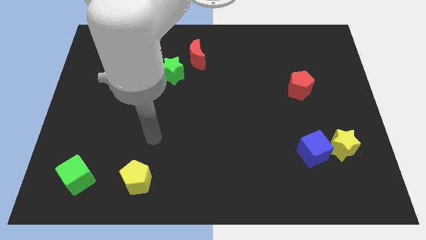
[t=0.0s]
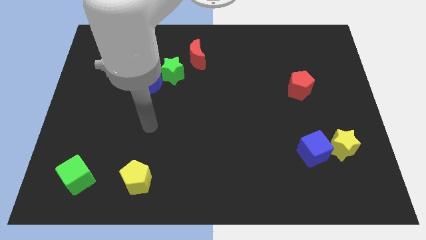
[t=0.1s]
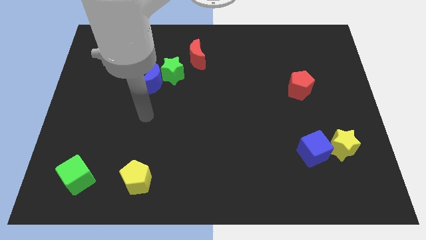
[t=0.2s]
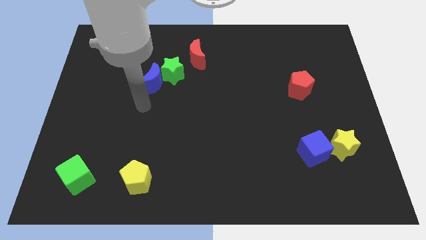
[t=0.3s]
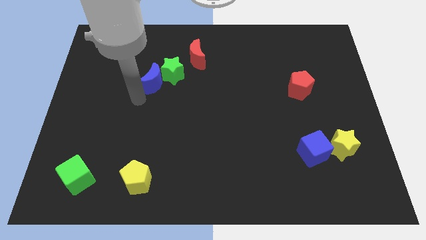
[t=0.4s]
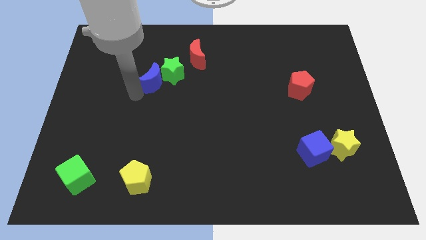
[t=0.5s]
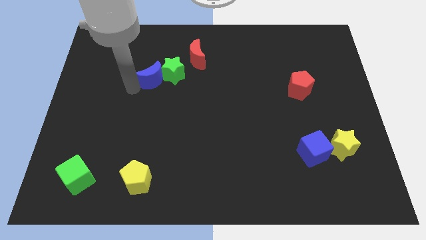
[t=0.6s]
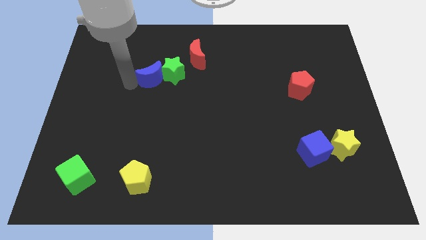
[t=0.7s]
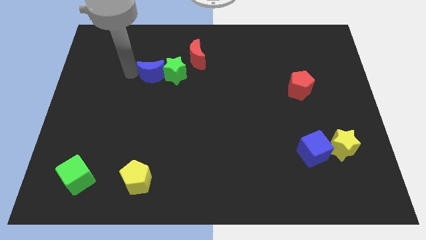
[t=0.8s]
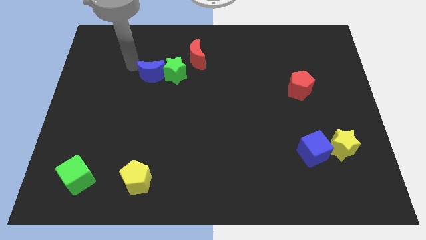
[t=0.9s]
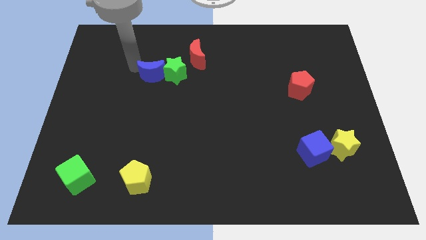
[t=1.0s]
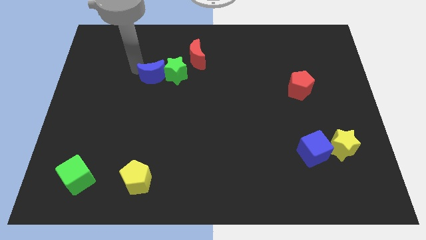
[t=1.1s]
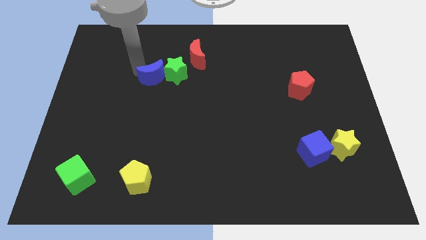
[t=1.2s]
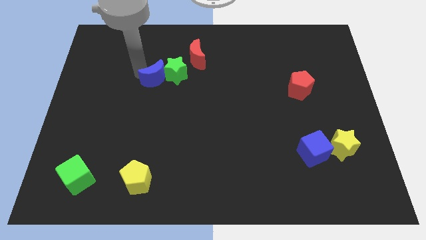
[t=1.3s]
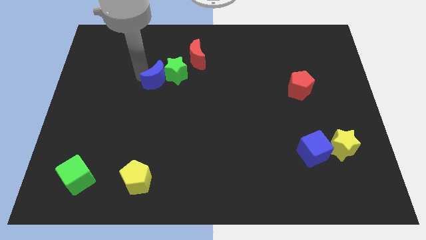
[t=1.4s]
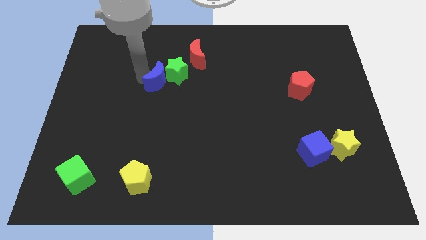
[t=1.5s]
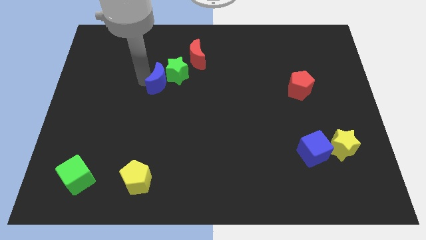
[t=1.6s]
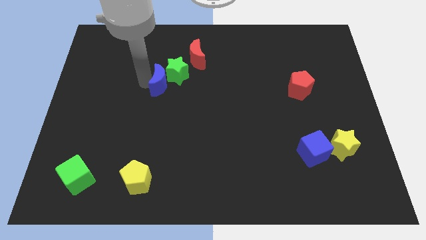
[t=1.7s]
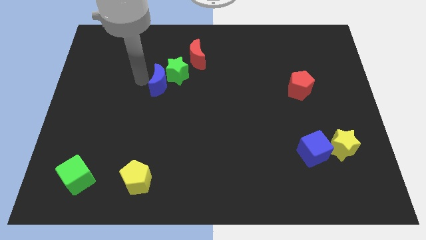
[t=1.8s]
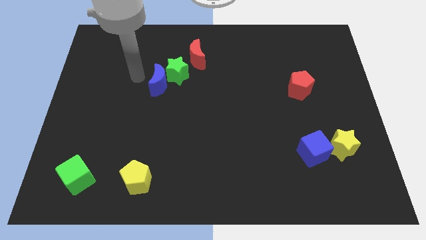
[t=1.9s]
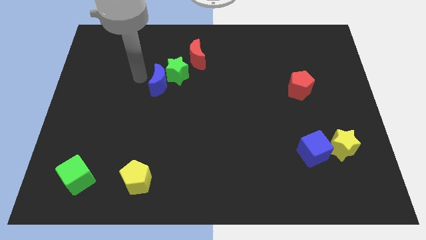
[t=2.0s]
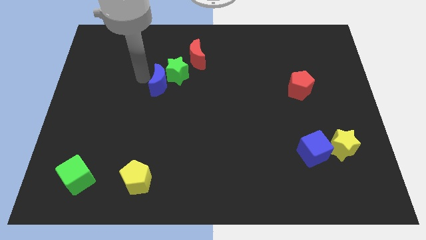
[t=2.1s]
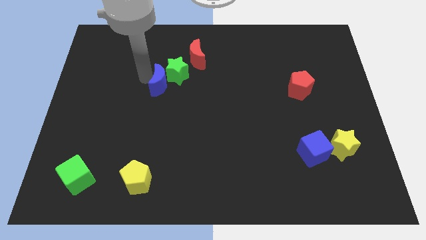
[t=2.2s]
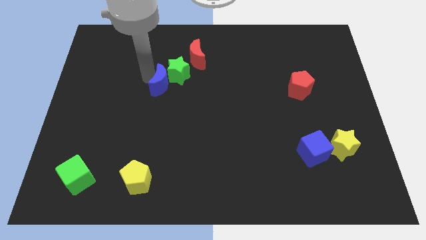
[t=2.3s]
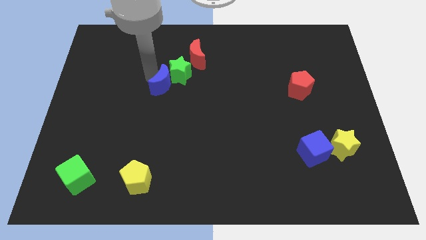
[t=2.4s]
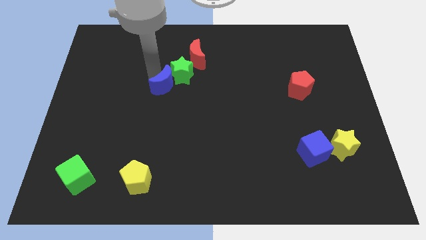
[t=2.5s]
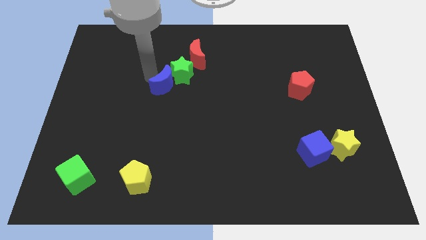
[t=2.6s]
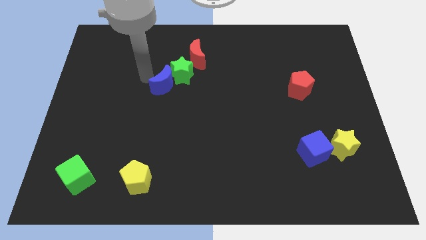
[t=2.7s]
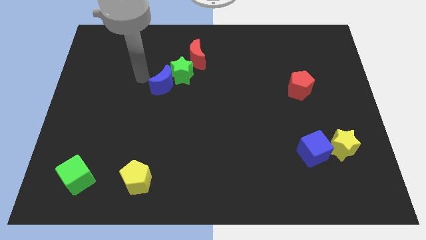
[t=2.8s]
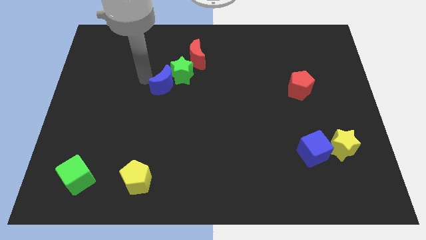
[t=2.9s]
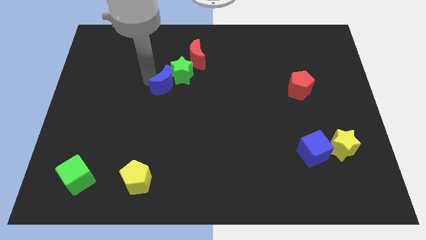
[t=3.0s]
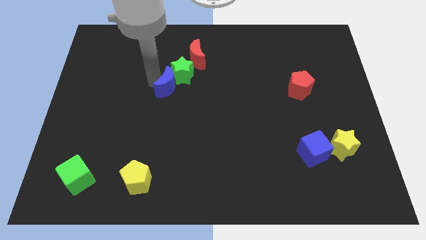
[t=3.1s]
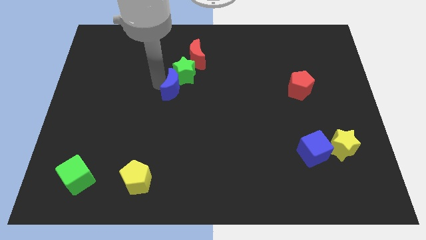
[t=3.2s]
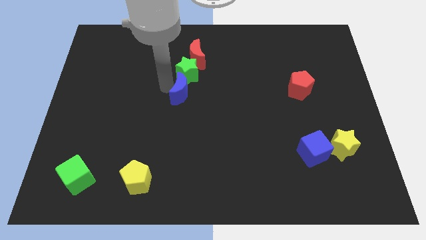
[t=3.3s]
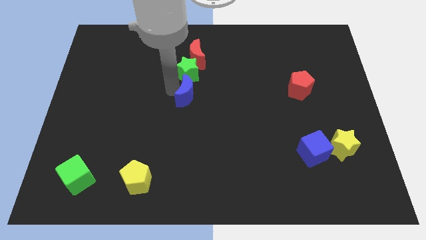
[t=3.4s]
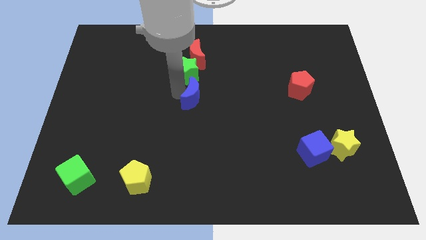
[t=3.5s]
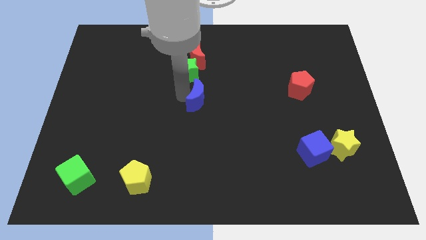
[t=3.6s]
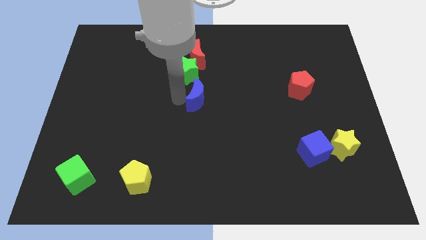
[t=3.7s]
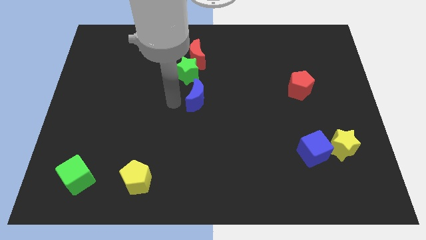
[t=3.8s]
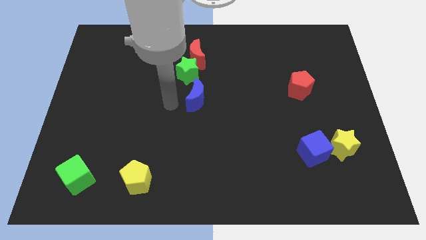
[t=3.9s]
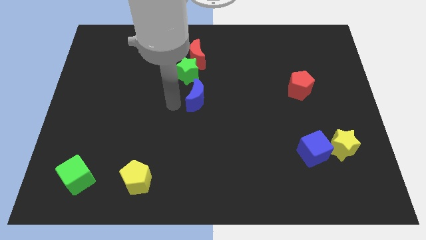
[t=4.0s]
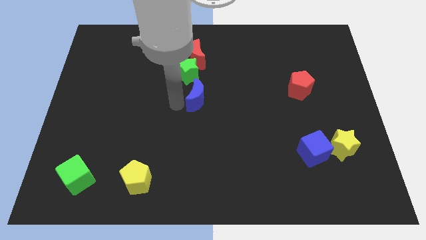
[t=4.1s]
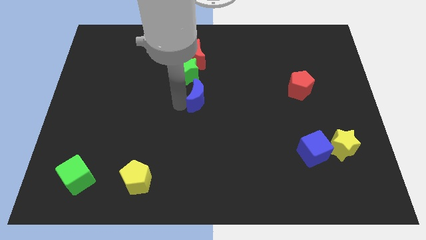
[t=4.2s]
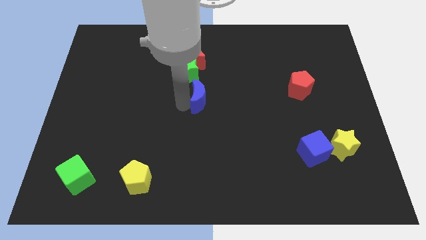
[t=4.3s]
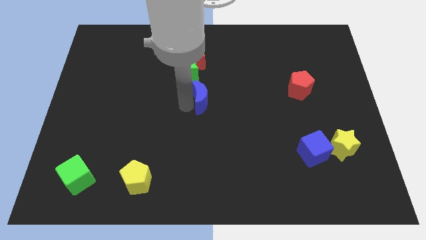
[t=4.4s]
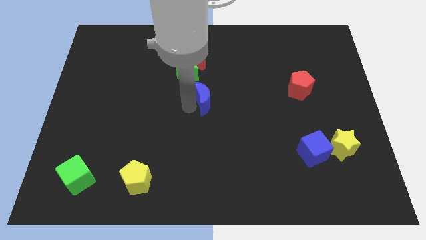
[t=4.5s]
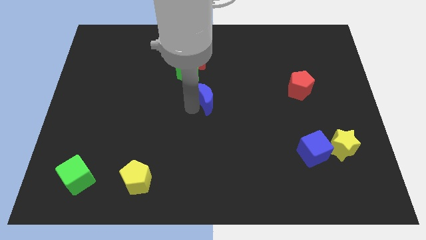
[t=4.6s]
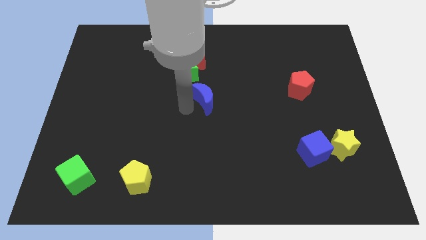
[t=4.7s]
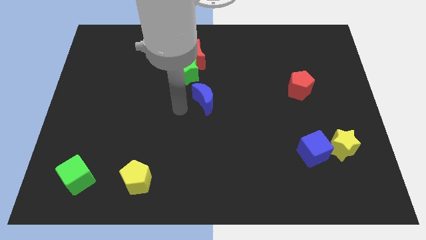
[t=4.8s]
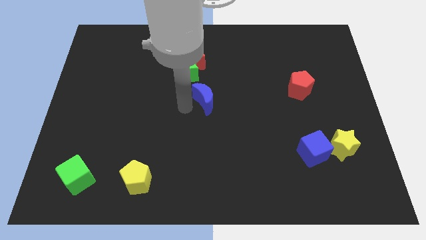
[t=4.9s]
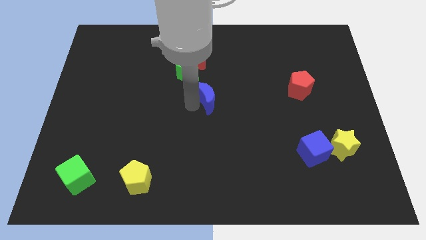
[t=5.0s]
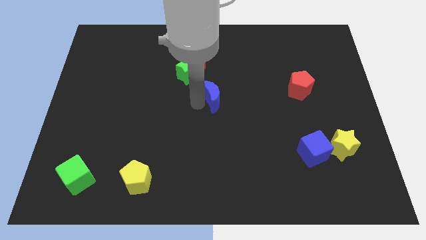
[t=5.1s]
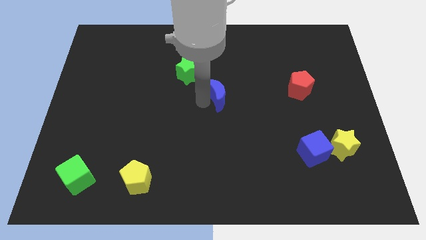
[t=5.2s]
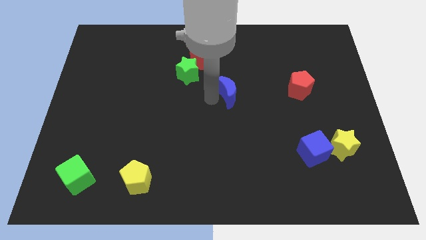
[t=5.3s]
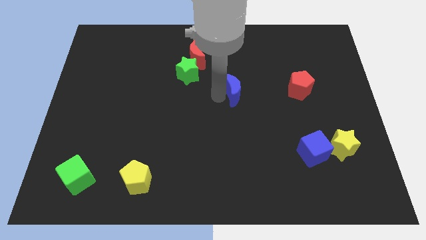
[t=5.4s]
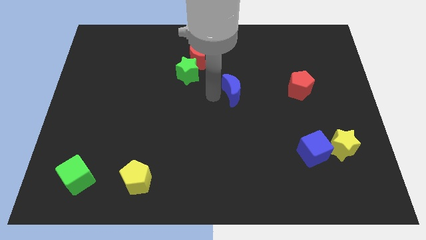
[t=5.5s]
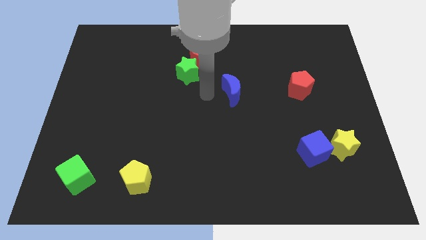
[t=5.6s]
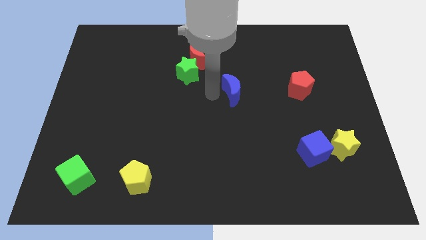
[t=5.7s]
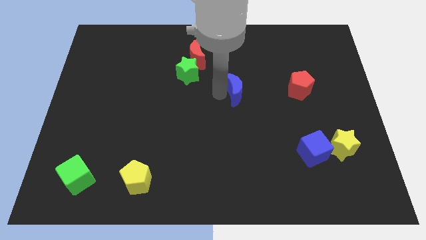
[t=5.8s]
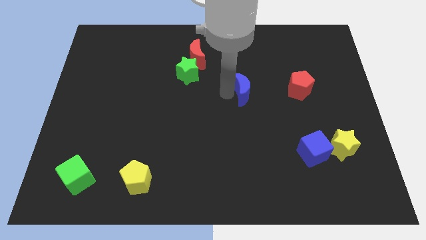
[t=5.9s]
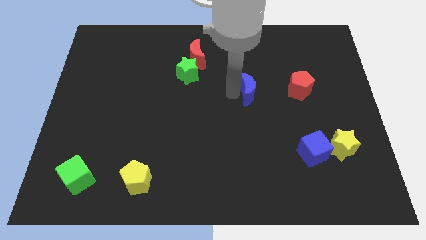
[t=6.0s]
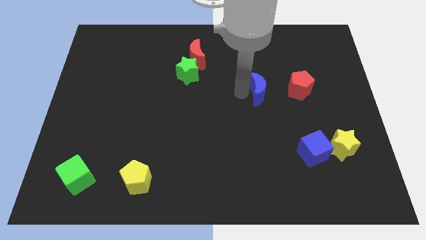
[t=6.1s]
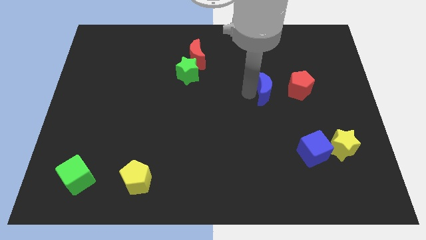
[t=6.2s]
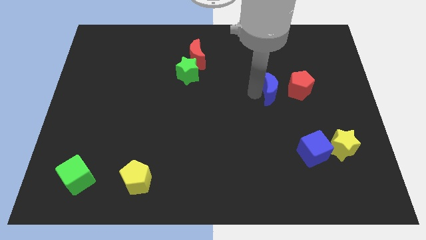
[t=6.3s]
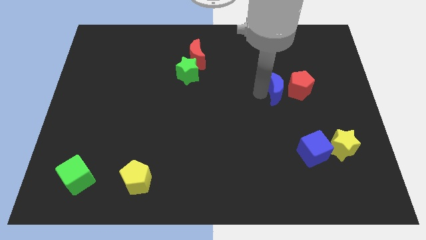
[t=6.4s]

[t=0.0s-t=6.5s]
move the blue moon close to the red pentagon

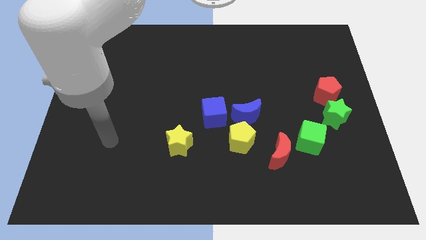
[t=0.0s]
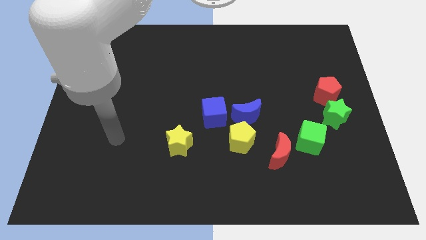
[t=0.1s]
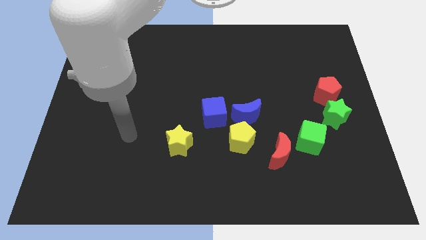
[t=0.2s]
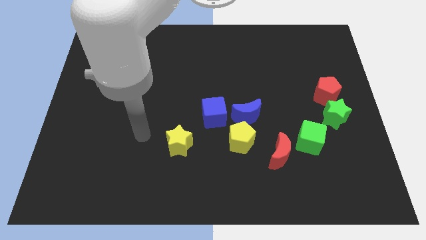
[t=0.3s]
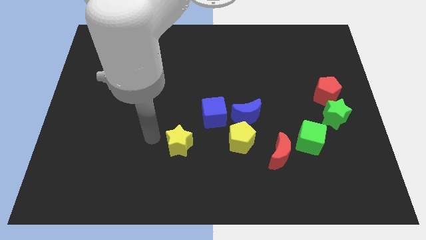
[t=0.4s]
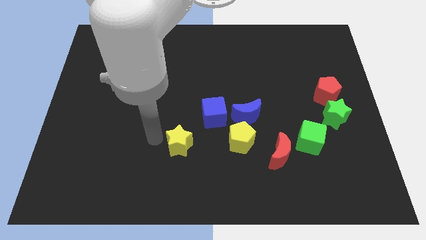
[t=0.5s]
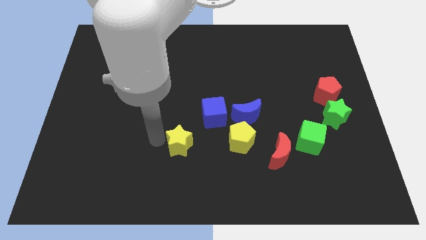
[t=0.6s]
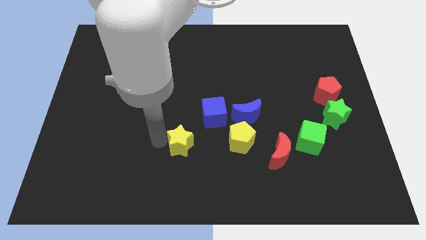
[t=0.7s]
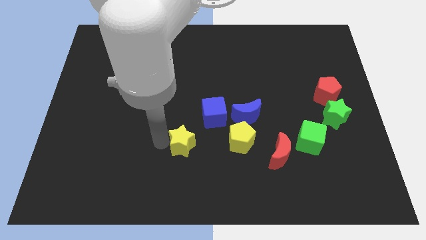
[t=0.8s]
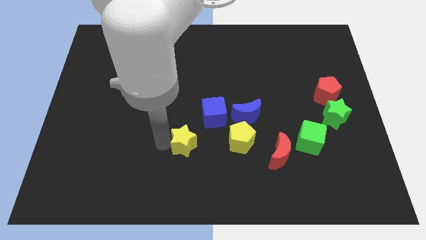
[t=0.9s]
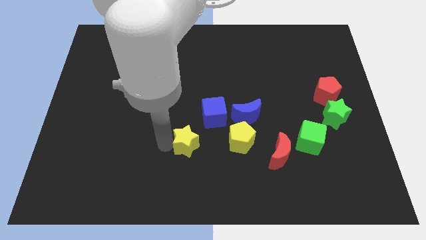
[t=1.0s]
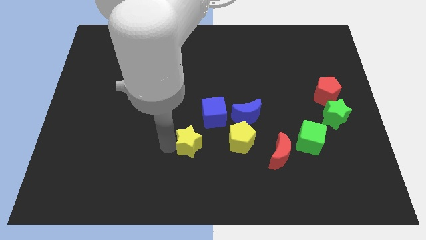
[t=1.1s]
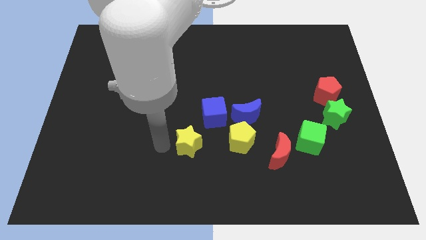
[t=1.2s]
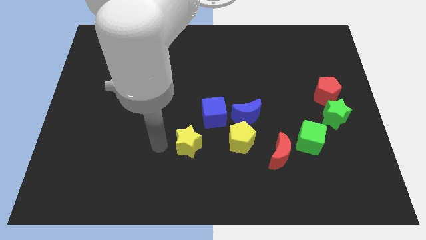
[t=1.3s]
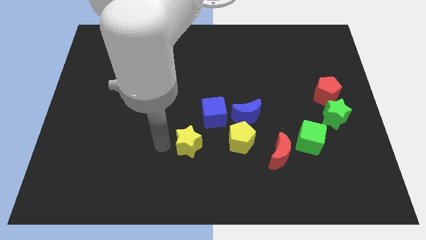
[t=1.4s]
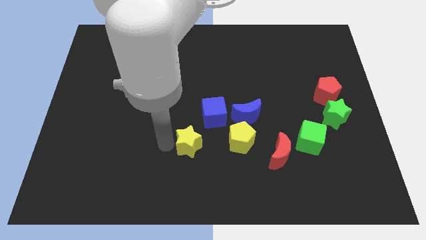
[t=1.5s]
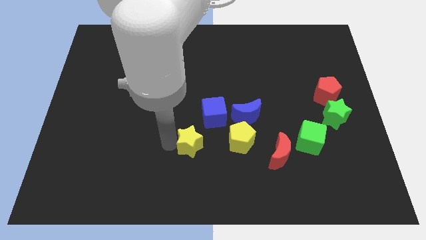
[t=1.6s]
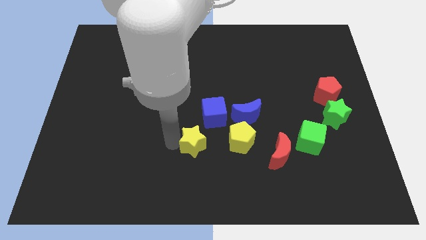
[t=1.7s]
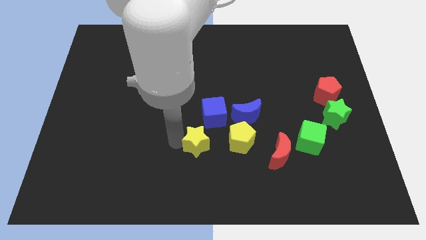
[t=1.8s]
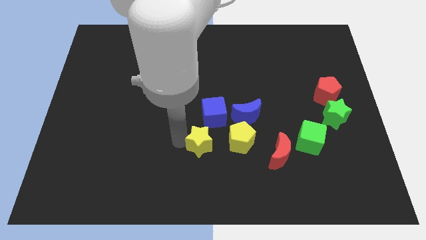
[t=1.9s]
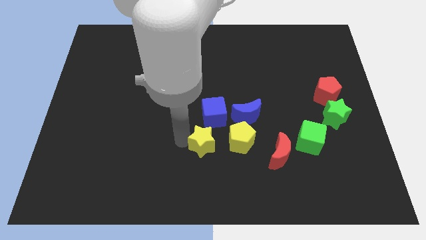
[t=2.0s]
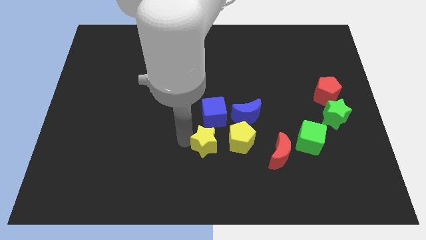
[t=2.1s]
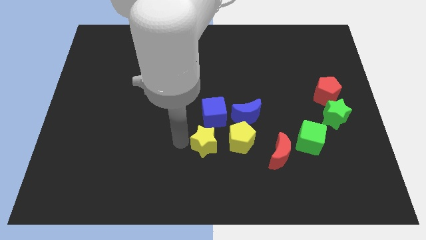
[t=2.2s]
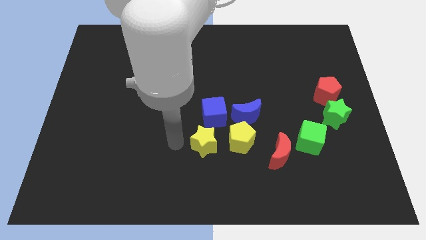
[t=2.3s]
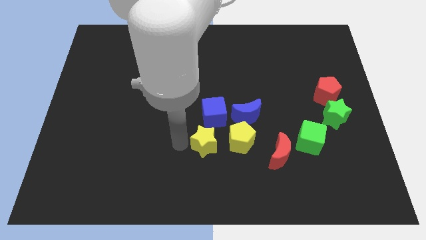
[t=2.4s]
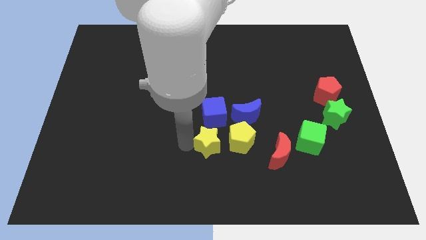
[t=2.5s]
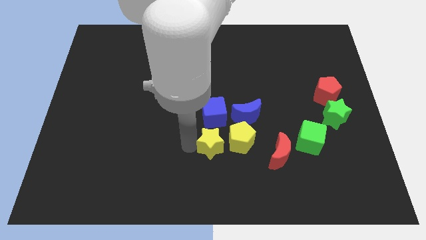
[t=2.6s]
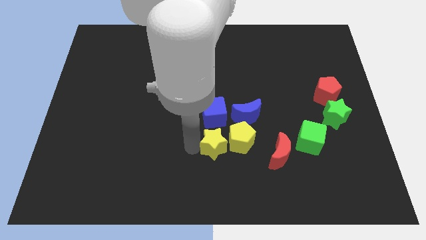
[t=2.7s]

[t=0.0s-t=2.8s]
move the yellow star close to the yellow pentagon
